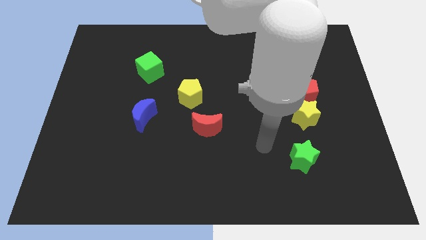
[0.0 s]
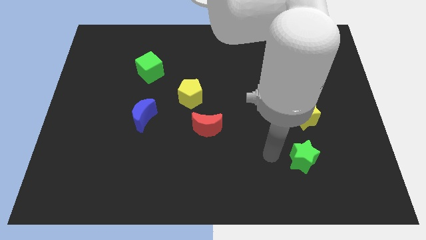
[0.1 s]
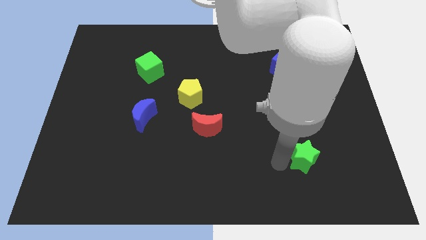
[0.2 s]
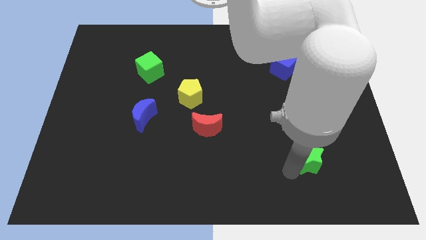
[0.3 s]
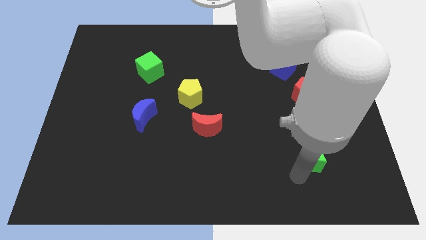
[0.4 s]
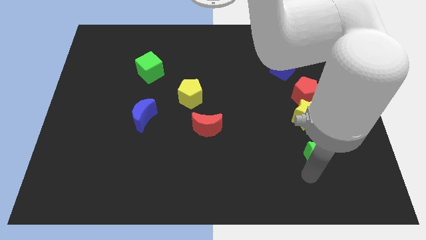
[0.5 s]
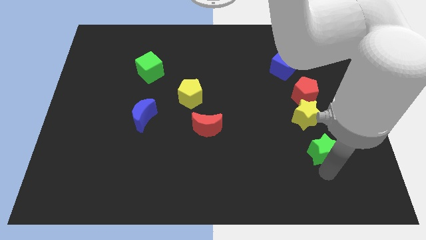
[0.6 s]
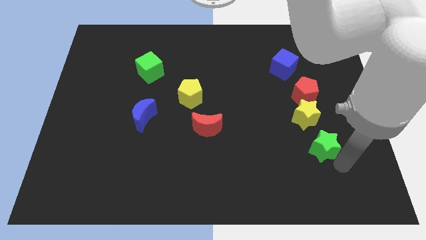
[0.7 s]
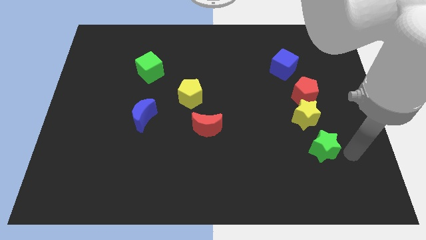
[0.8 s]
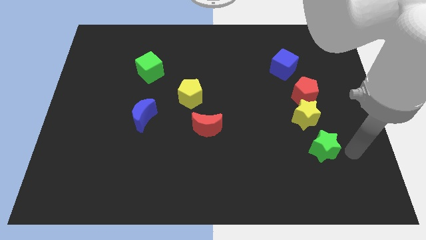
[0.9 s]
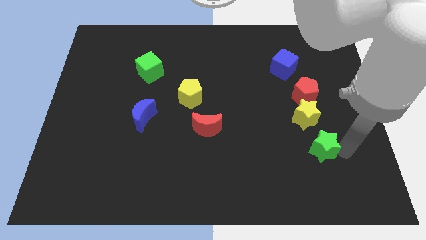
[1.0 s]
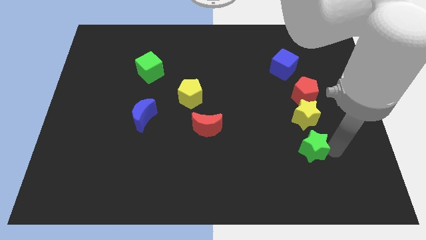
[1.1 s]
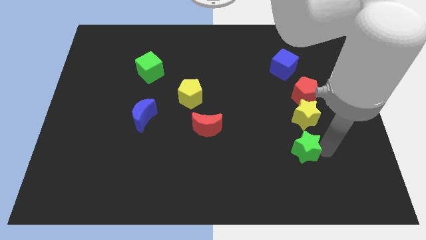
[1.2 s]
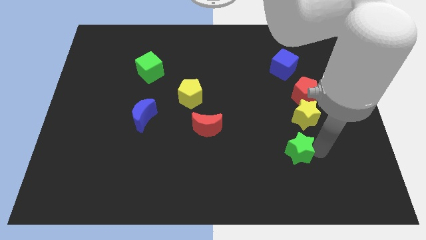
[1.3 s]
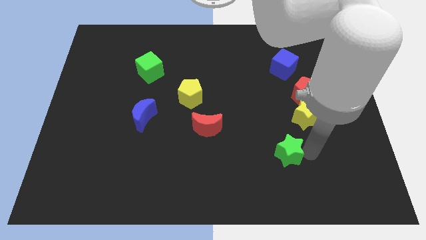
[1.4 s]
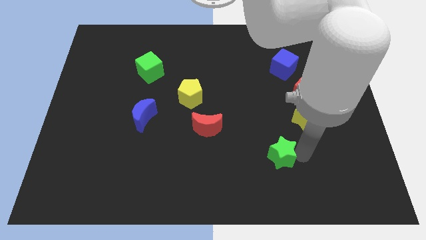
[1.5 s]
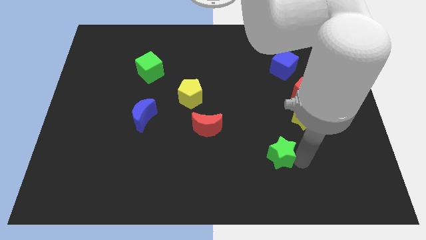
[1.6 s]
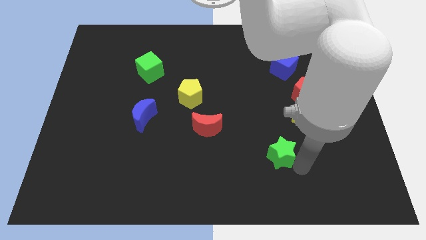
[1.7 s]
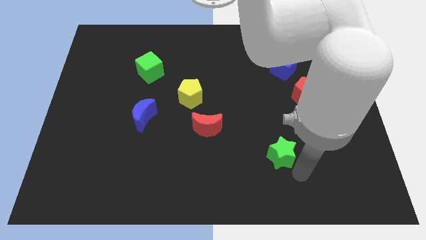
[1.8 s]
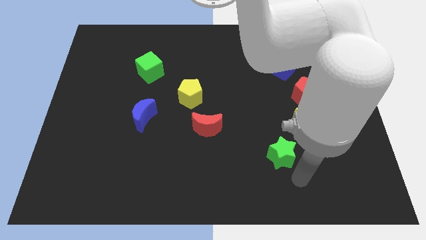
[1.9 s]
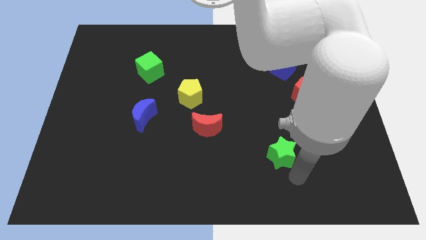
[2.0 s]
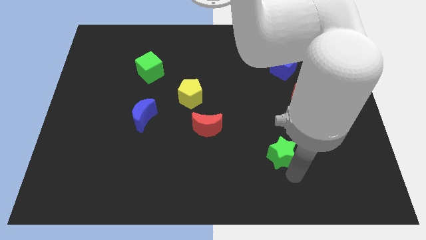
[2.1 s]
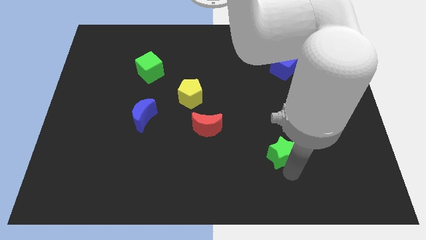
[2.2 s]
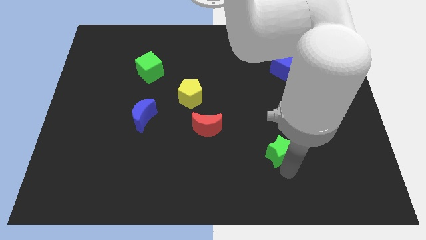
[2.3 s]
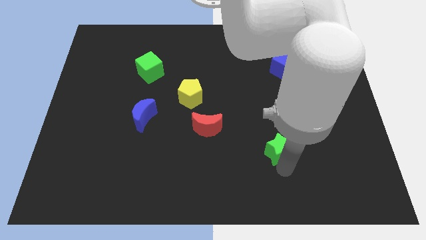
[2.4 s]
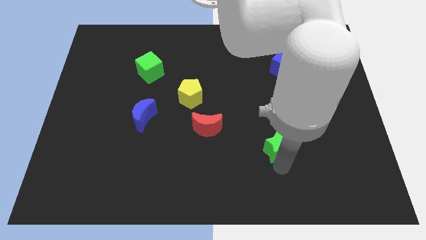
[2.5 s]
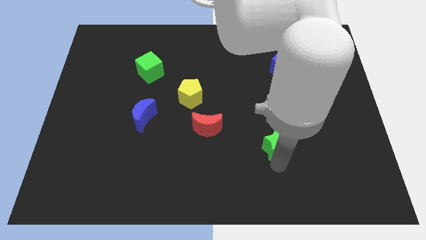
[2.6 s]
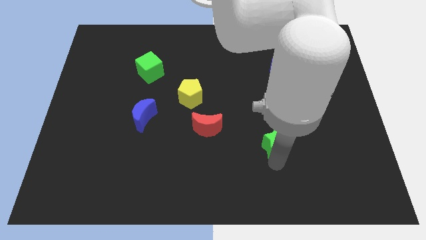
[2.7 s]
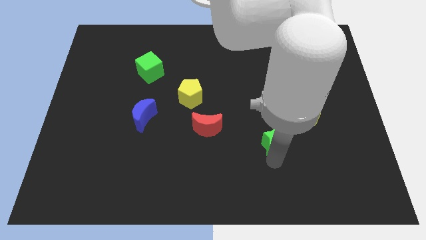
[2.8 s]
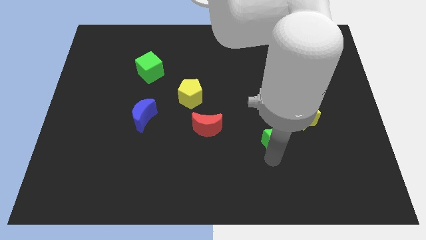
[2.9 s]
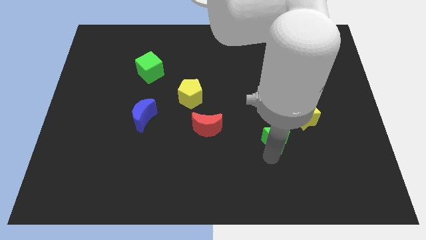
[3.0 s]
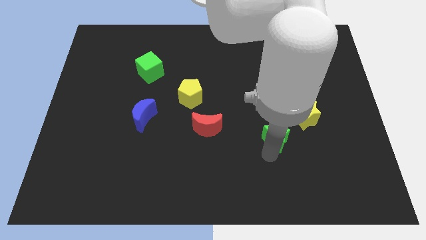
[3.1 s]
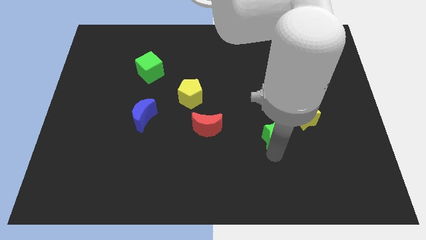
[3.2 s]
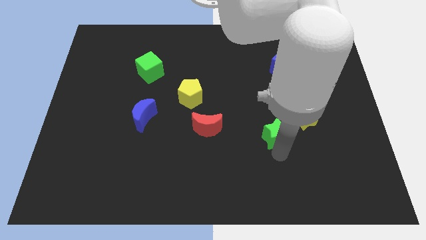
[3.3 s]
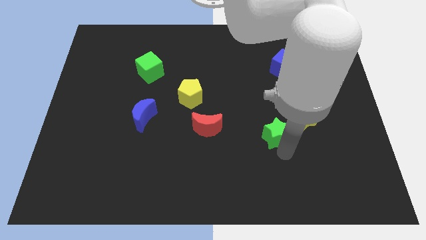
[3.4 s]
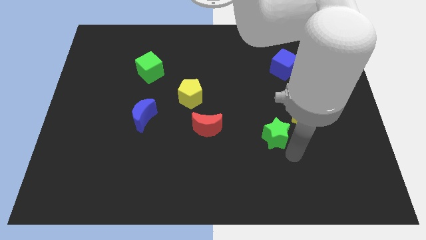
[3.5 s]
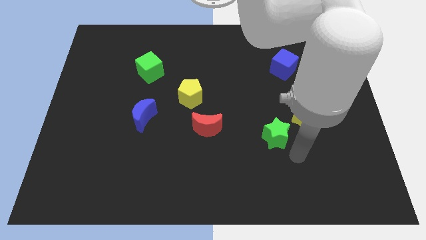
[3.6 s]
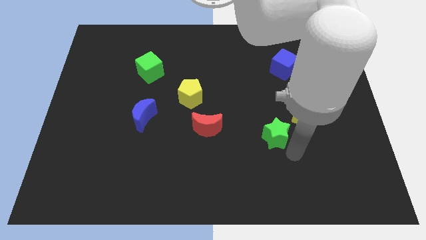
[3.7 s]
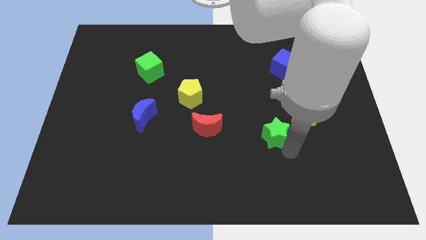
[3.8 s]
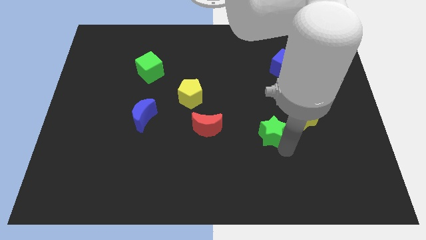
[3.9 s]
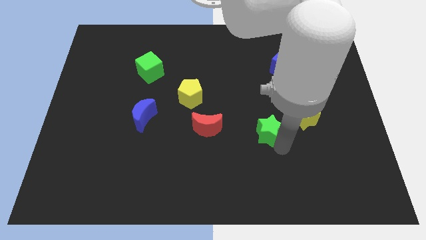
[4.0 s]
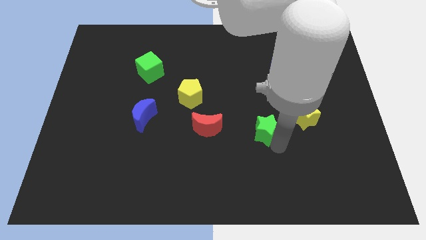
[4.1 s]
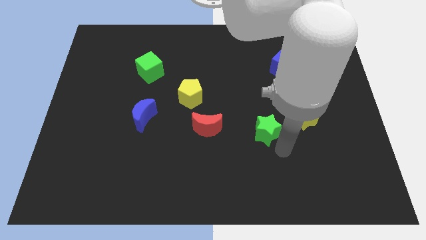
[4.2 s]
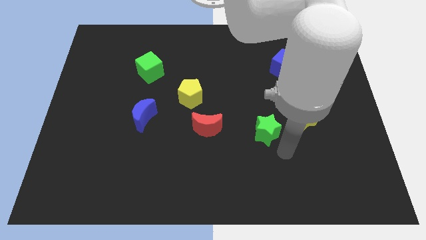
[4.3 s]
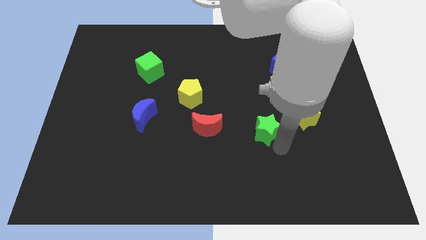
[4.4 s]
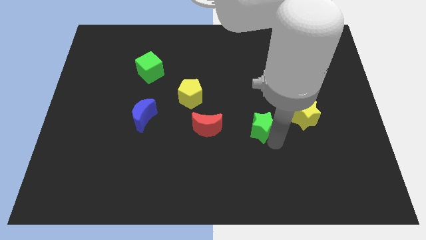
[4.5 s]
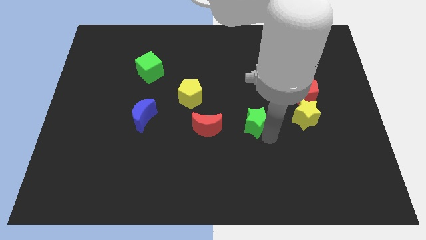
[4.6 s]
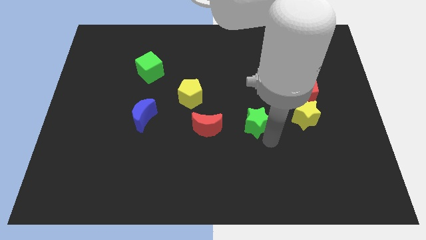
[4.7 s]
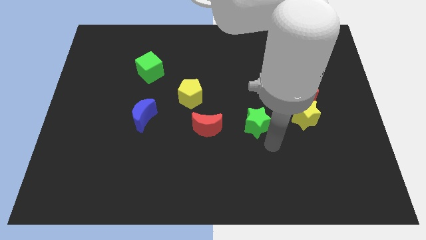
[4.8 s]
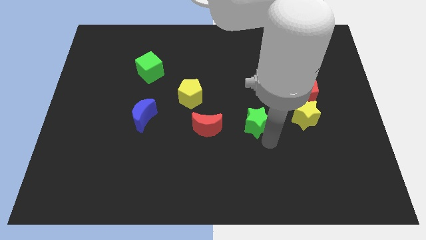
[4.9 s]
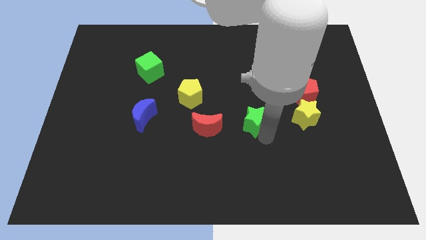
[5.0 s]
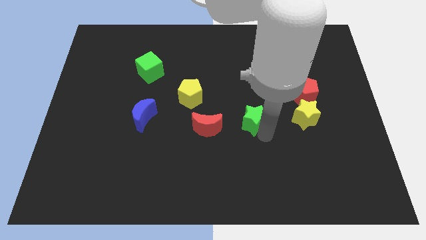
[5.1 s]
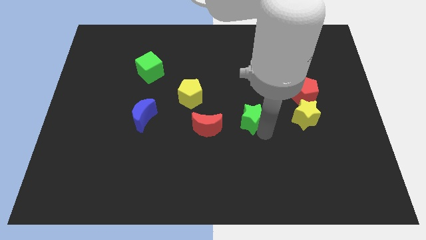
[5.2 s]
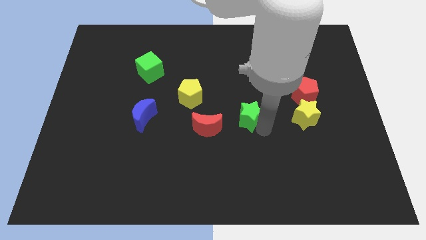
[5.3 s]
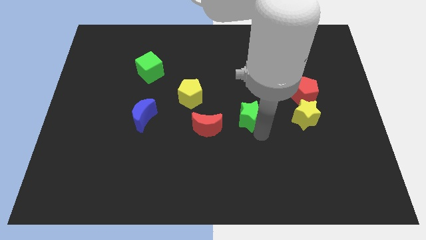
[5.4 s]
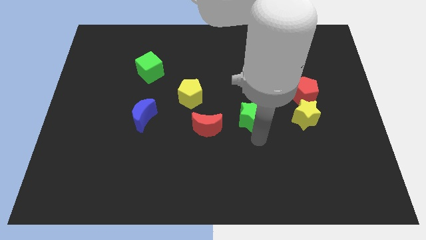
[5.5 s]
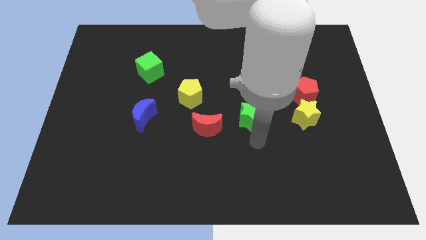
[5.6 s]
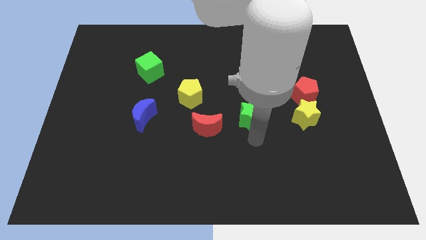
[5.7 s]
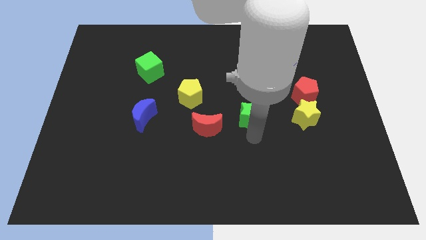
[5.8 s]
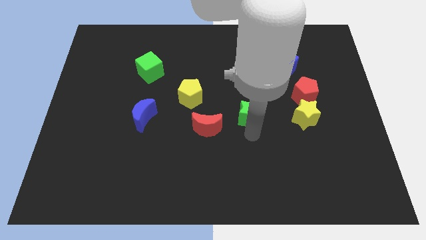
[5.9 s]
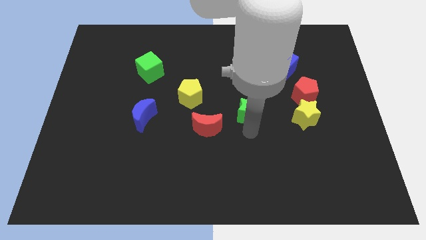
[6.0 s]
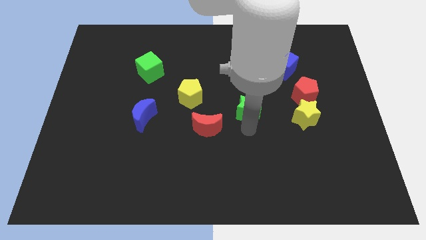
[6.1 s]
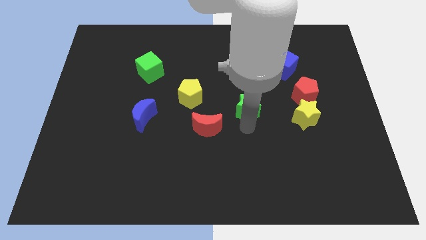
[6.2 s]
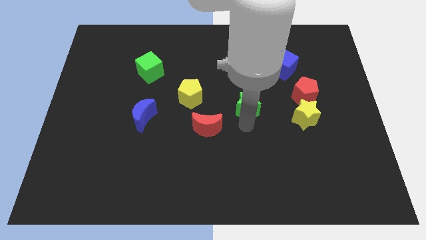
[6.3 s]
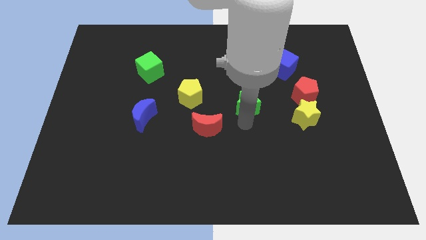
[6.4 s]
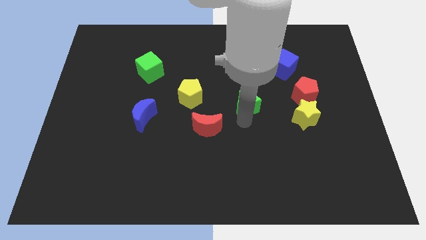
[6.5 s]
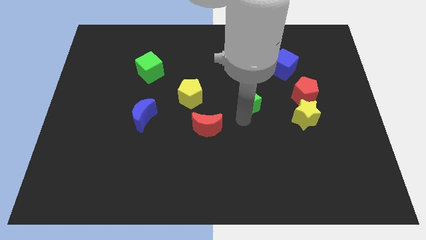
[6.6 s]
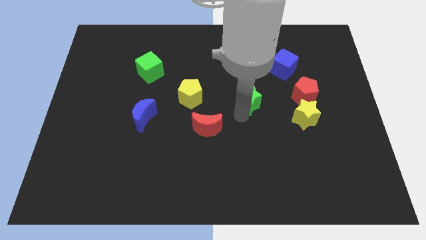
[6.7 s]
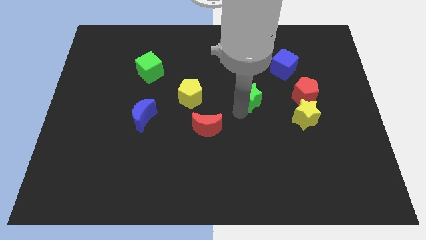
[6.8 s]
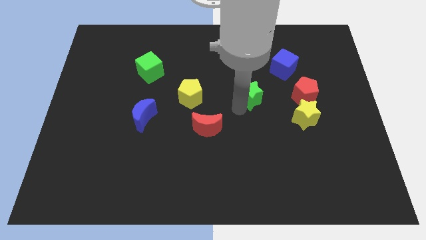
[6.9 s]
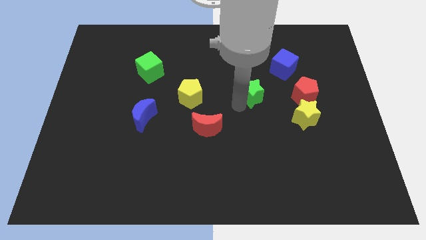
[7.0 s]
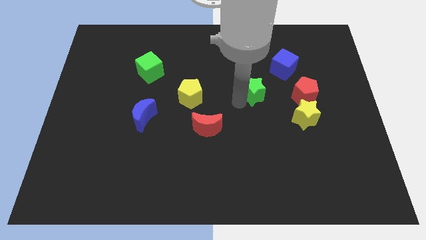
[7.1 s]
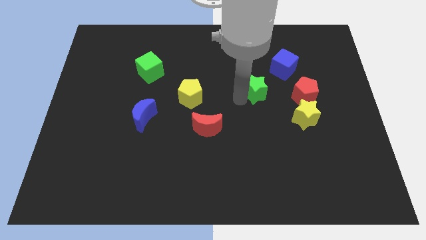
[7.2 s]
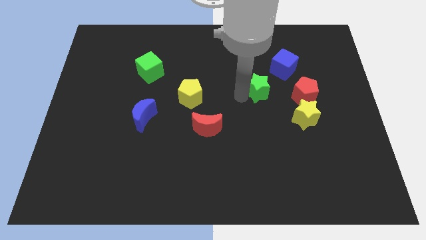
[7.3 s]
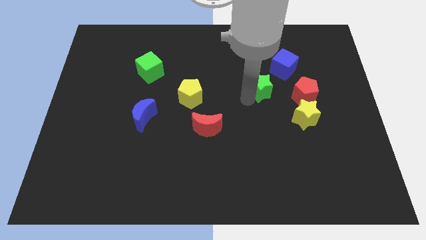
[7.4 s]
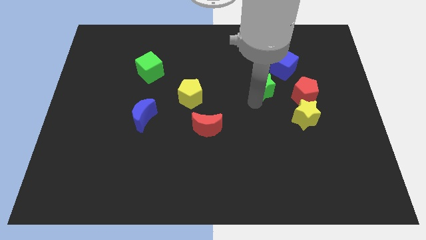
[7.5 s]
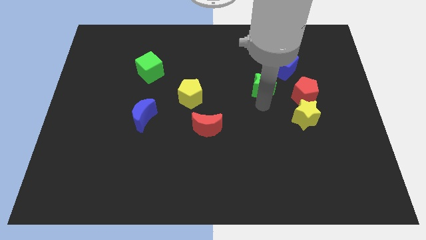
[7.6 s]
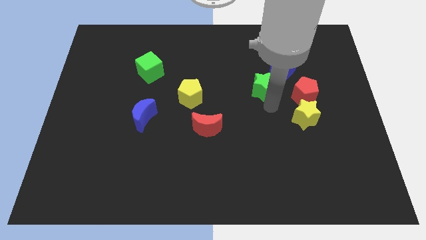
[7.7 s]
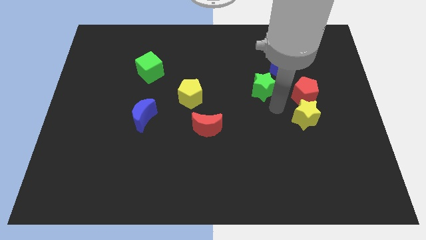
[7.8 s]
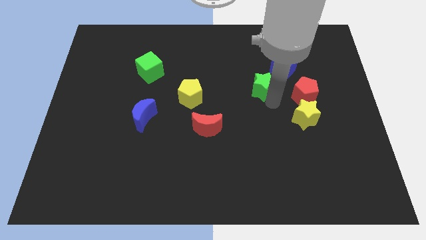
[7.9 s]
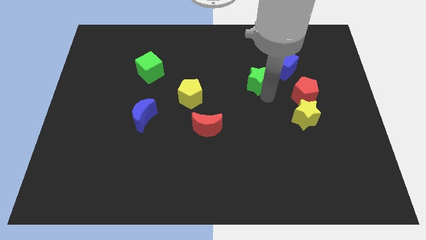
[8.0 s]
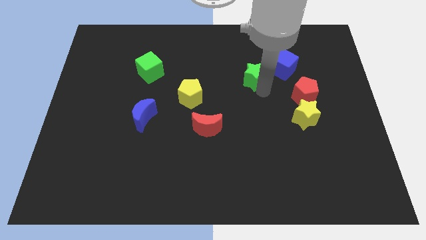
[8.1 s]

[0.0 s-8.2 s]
move the green star just left of the blue cube
